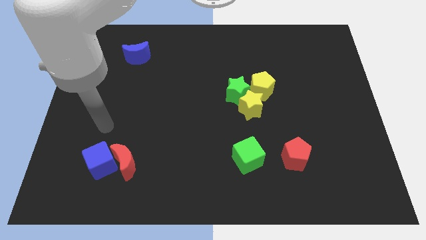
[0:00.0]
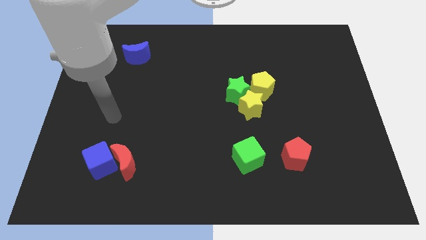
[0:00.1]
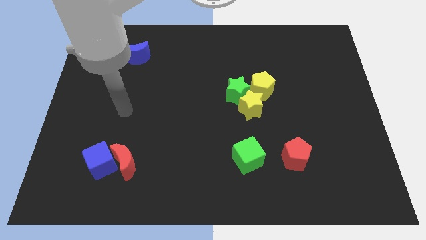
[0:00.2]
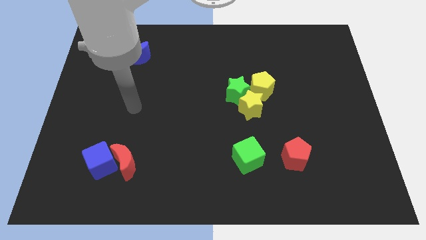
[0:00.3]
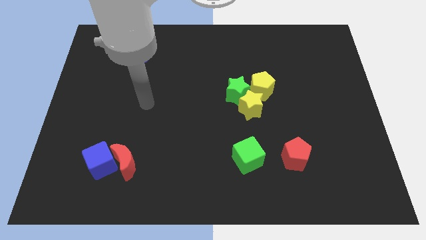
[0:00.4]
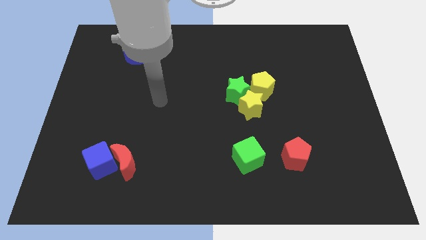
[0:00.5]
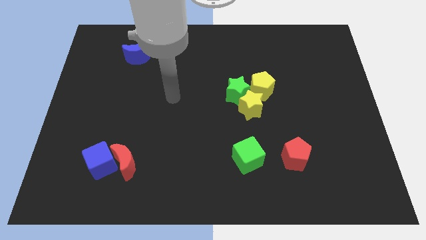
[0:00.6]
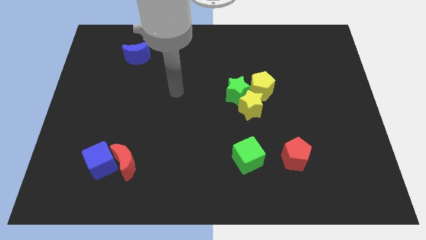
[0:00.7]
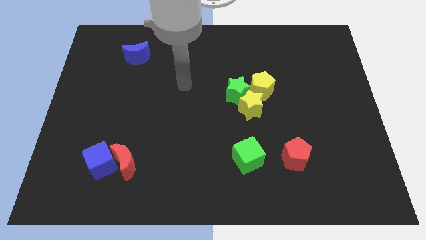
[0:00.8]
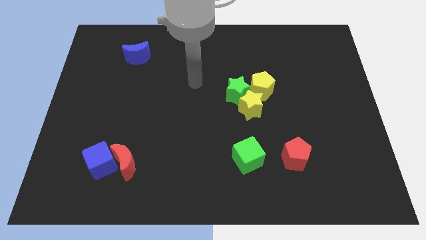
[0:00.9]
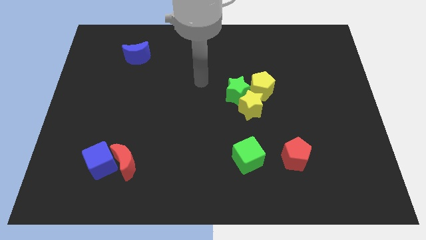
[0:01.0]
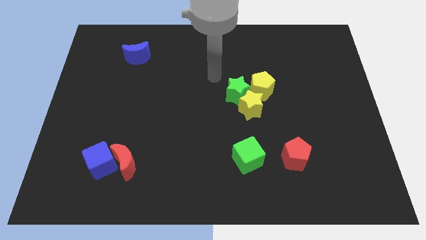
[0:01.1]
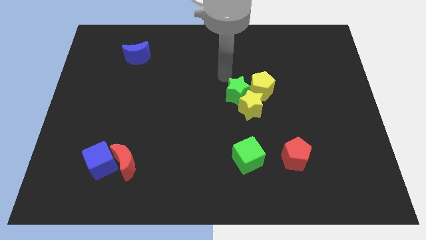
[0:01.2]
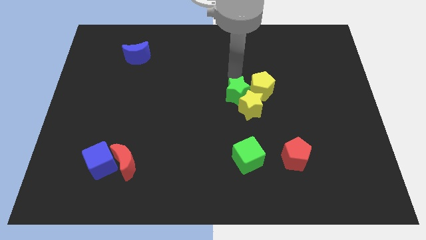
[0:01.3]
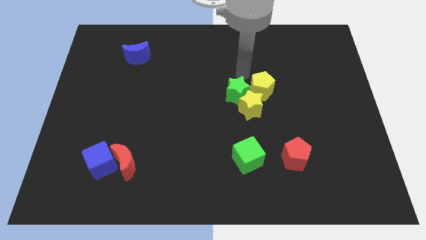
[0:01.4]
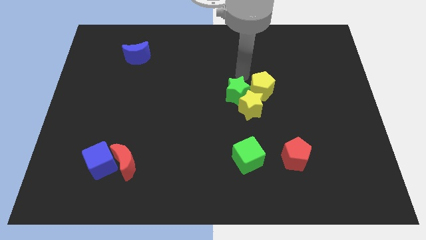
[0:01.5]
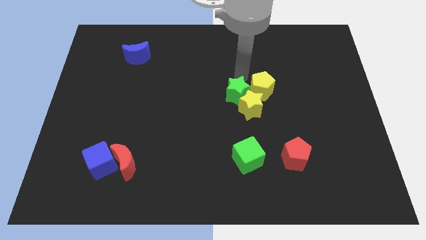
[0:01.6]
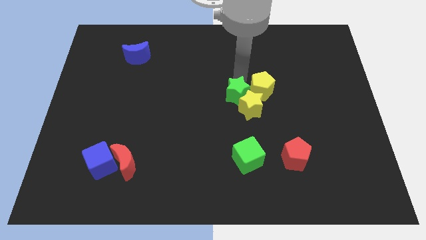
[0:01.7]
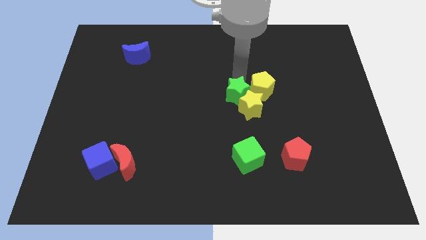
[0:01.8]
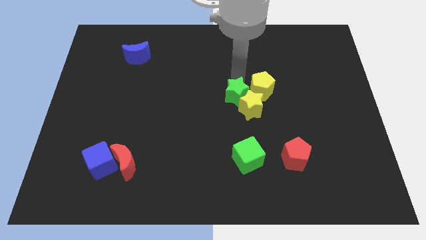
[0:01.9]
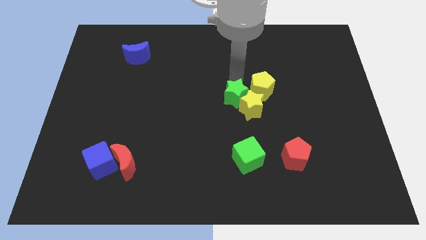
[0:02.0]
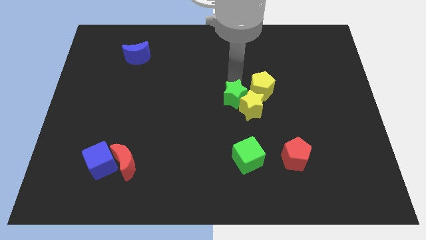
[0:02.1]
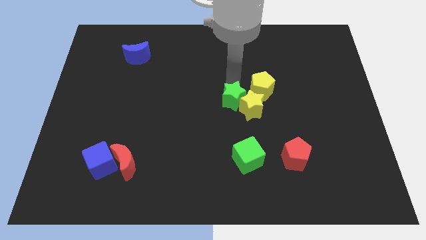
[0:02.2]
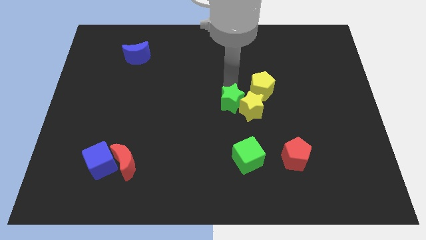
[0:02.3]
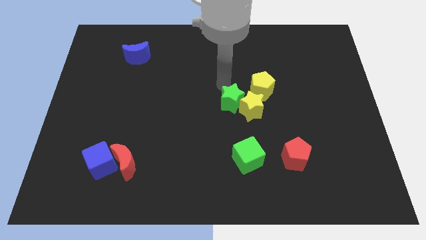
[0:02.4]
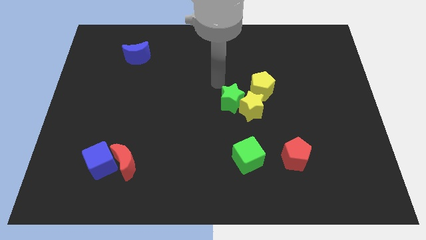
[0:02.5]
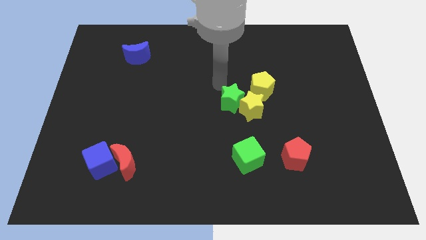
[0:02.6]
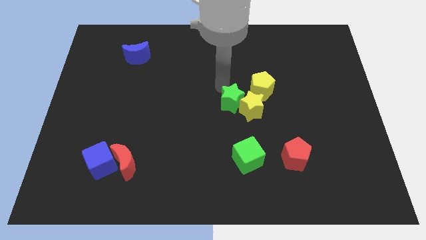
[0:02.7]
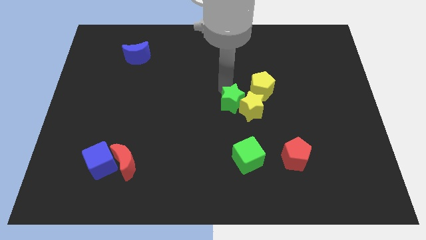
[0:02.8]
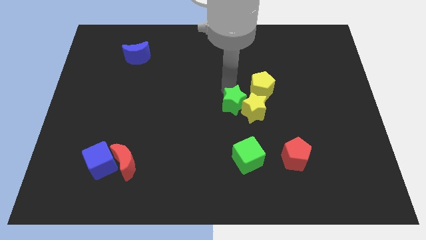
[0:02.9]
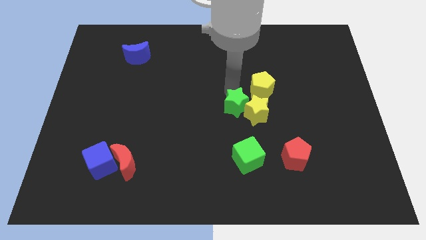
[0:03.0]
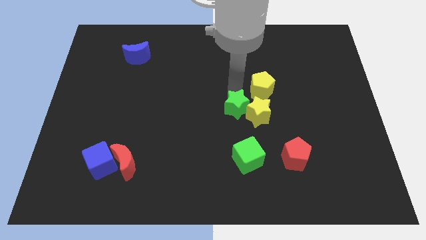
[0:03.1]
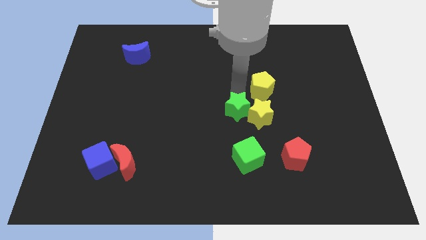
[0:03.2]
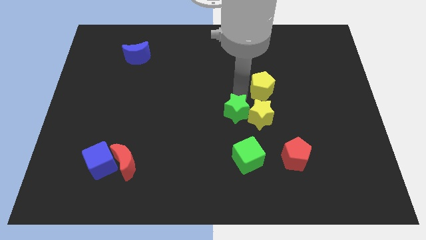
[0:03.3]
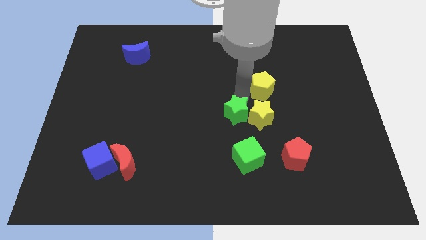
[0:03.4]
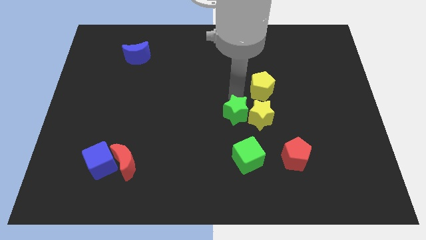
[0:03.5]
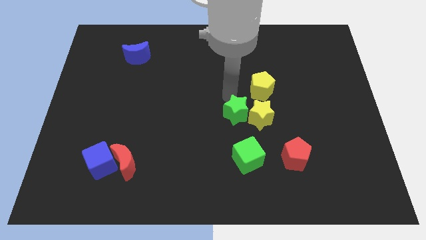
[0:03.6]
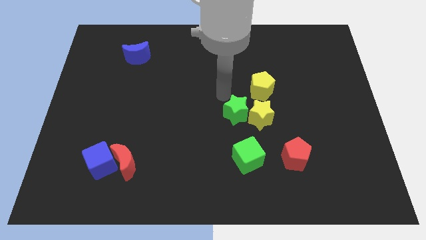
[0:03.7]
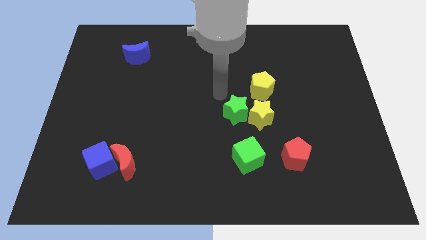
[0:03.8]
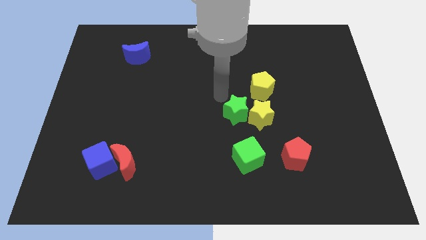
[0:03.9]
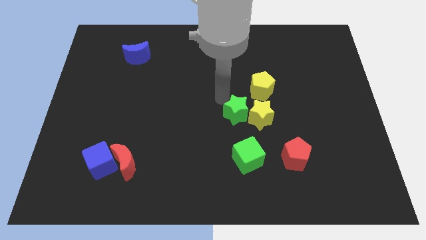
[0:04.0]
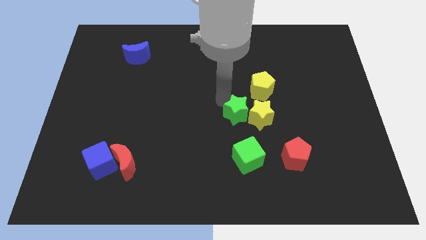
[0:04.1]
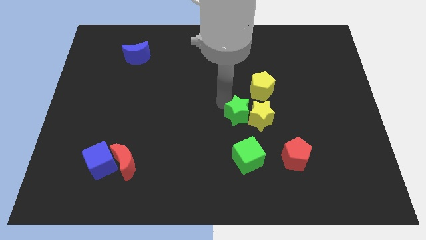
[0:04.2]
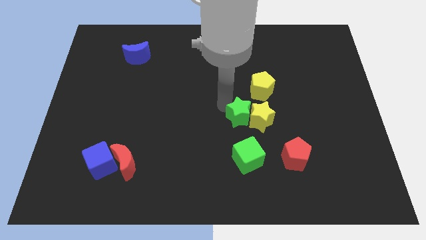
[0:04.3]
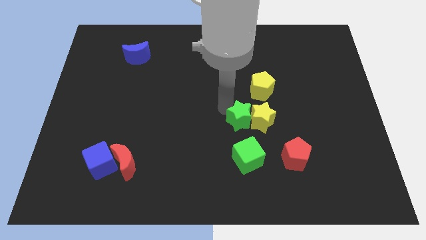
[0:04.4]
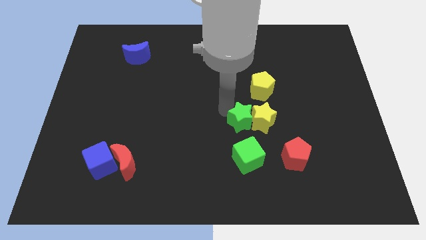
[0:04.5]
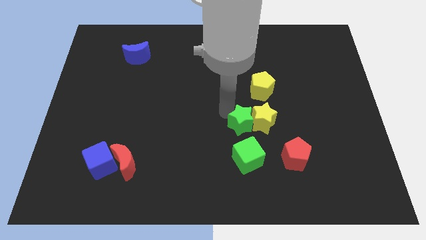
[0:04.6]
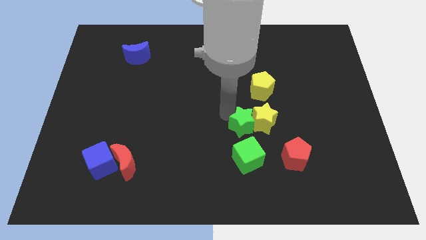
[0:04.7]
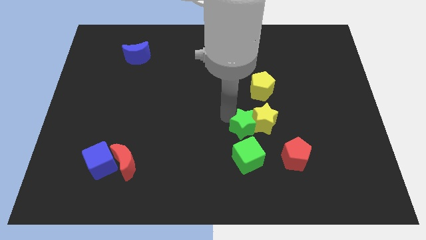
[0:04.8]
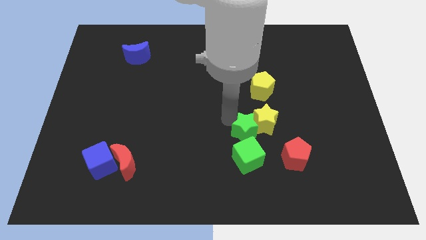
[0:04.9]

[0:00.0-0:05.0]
push the green star downwards and then to the right a bit

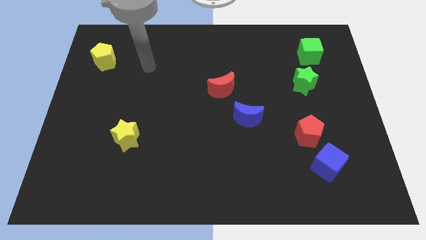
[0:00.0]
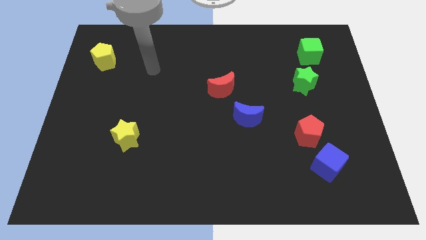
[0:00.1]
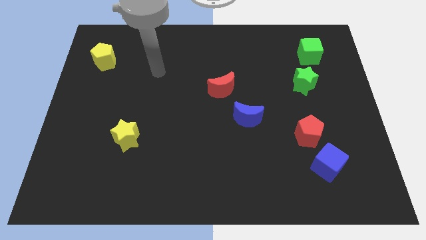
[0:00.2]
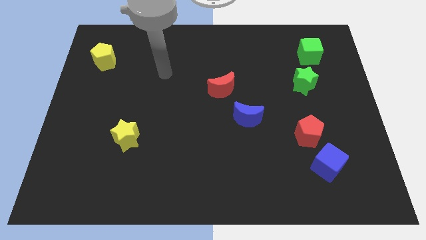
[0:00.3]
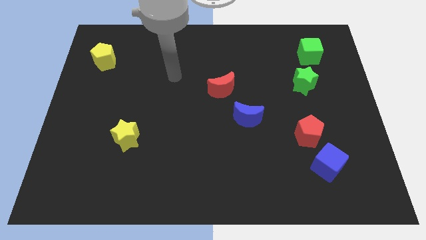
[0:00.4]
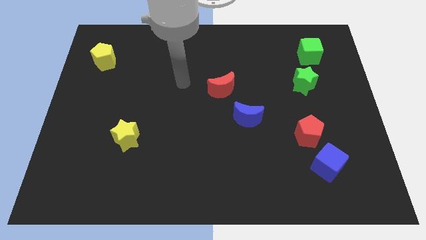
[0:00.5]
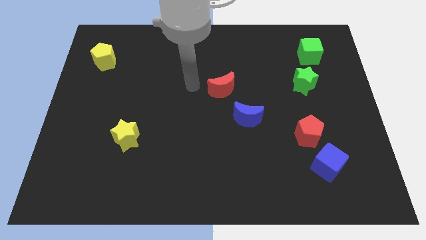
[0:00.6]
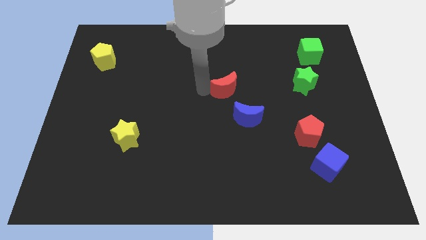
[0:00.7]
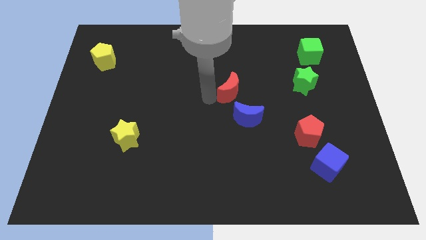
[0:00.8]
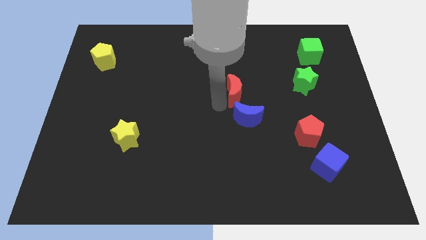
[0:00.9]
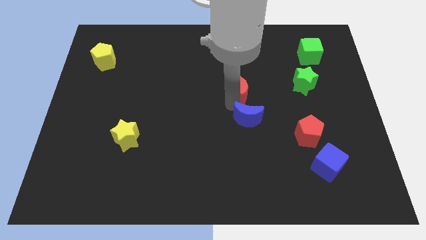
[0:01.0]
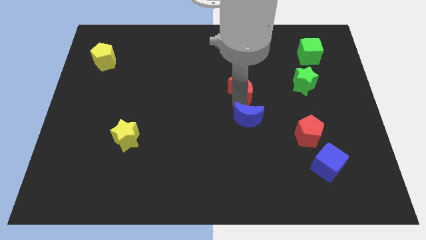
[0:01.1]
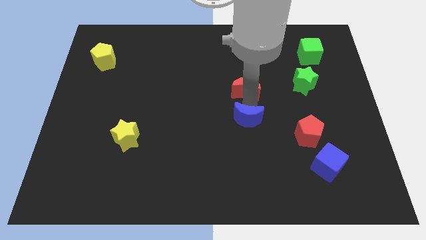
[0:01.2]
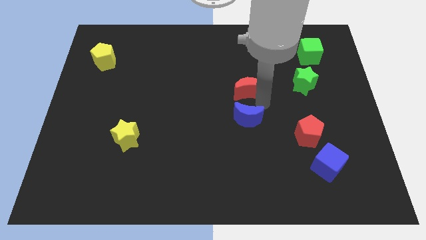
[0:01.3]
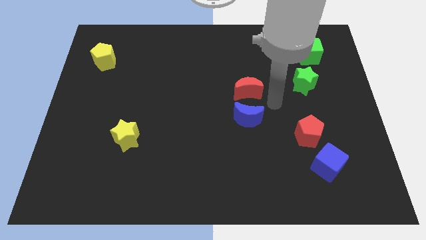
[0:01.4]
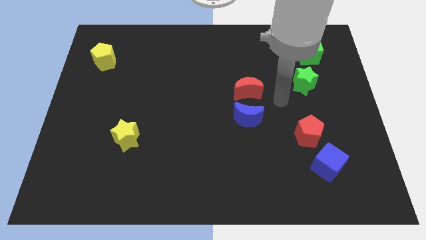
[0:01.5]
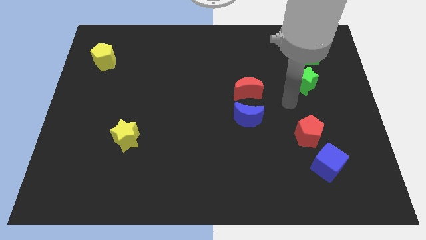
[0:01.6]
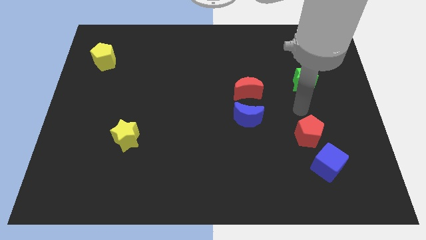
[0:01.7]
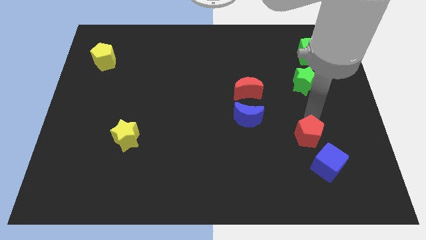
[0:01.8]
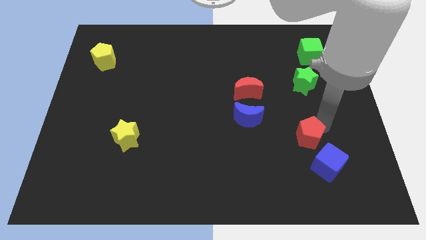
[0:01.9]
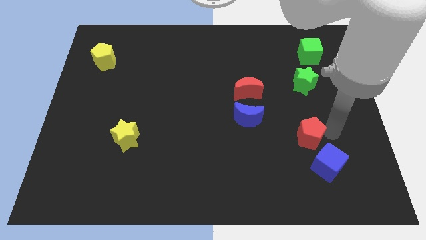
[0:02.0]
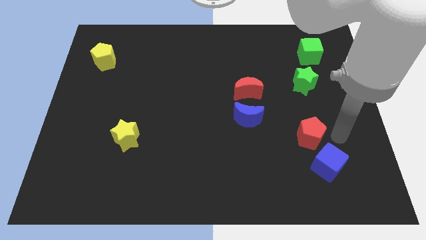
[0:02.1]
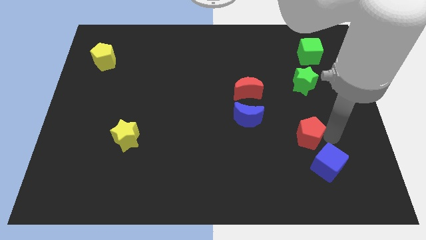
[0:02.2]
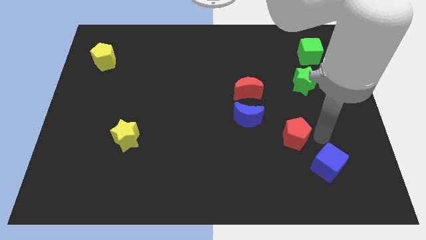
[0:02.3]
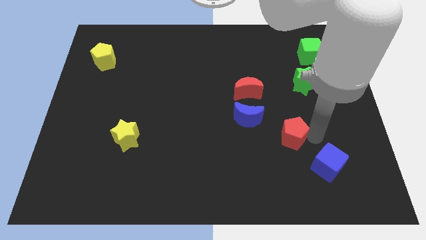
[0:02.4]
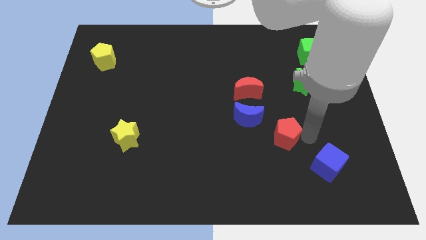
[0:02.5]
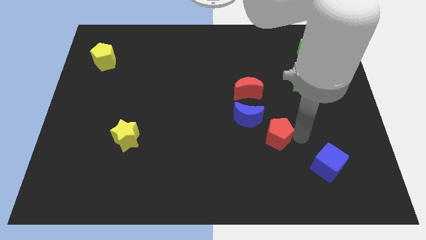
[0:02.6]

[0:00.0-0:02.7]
push the red pentagon a little bit left

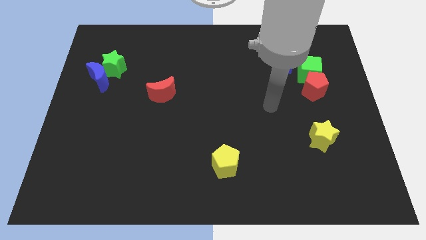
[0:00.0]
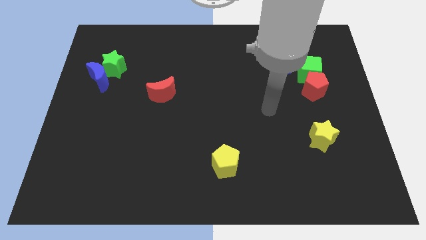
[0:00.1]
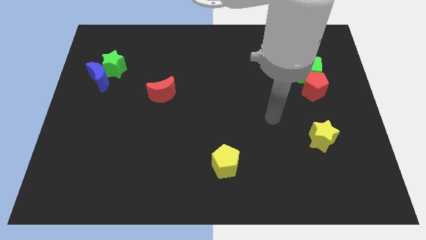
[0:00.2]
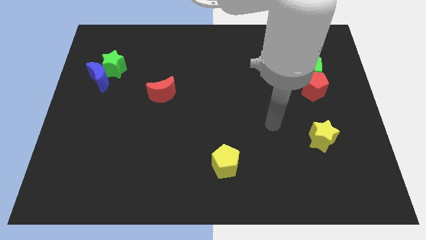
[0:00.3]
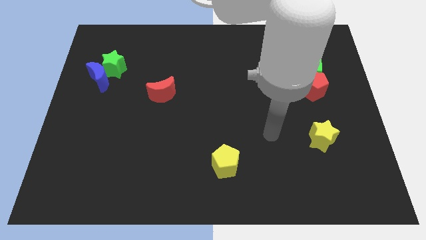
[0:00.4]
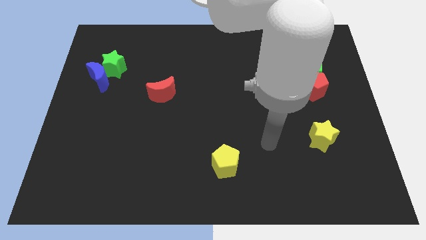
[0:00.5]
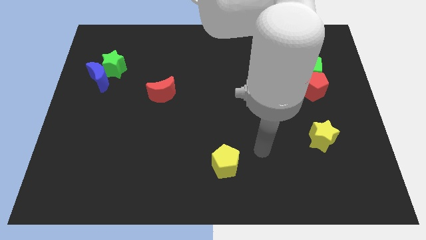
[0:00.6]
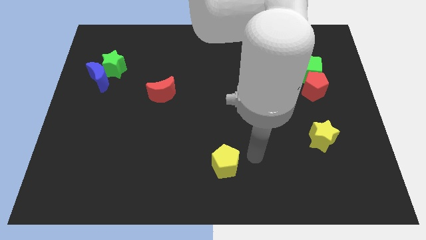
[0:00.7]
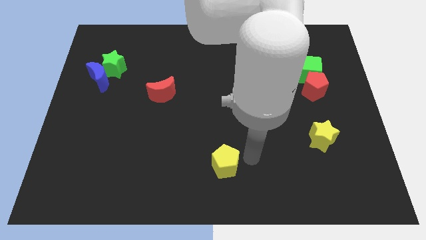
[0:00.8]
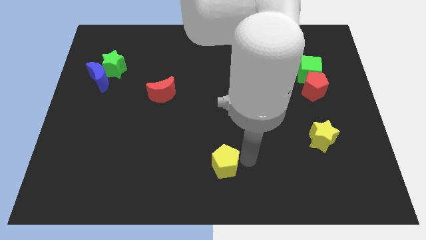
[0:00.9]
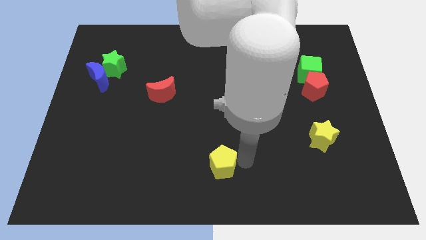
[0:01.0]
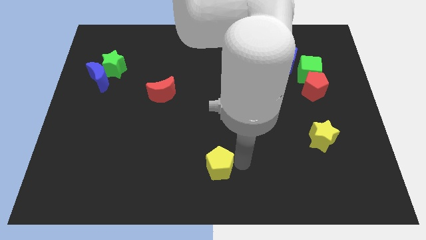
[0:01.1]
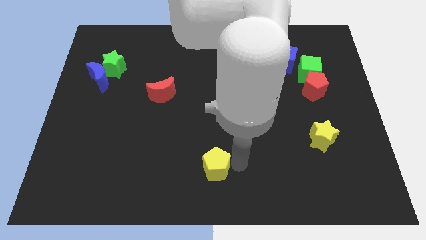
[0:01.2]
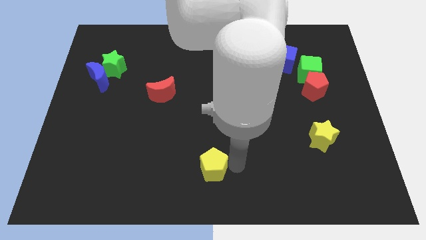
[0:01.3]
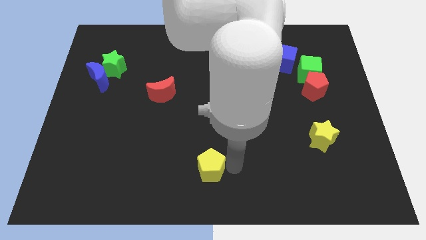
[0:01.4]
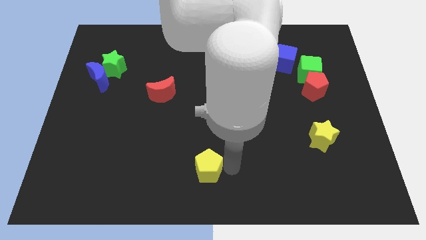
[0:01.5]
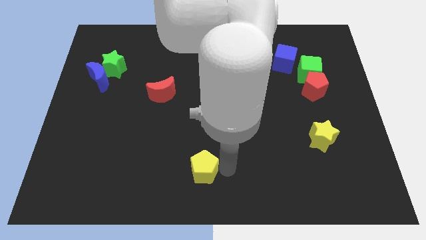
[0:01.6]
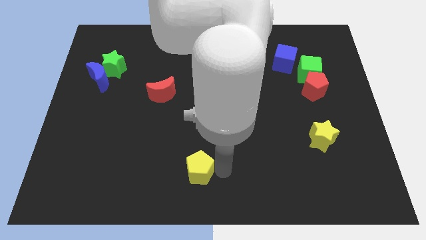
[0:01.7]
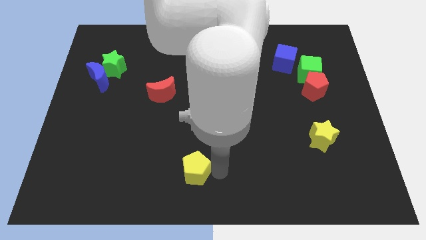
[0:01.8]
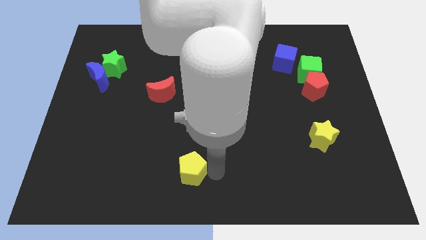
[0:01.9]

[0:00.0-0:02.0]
move the yellow pentagon somewhat to the left
